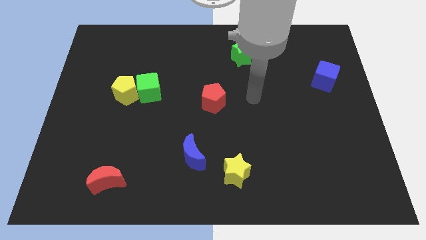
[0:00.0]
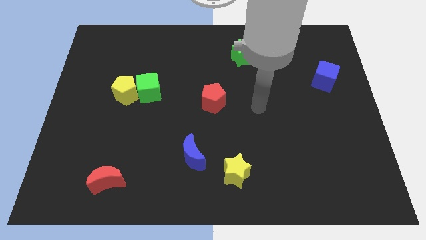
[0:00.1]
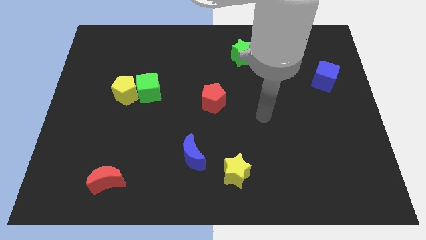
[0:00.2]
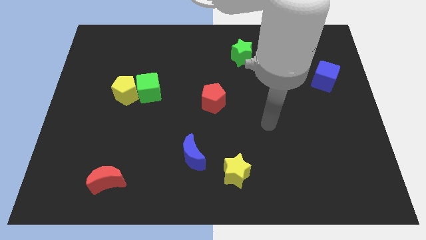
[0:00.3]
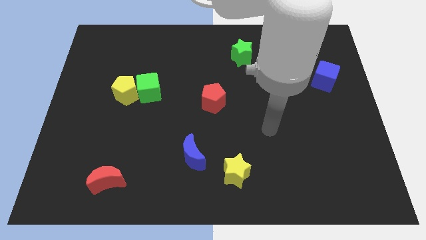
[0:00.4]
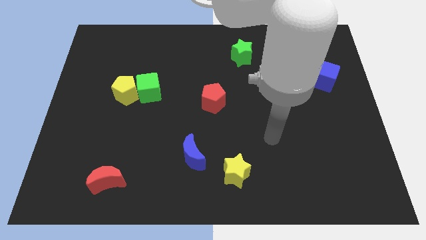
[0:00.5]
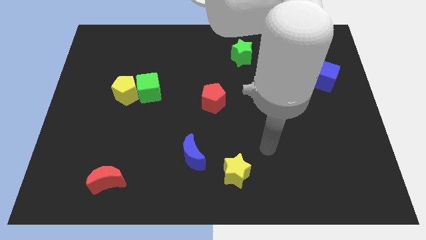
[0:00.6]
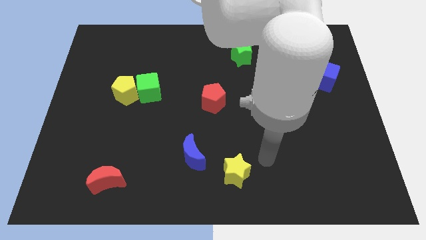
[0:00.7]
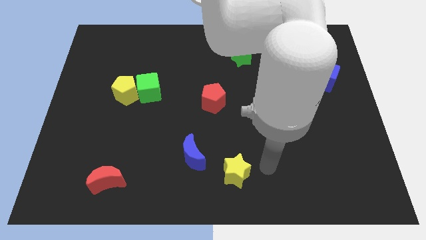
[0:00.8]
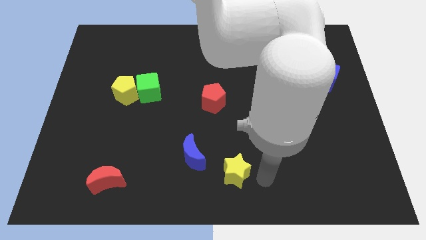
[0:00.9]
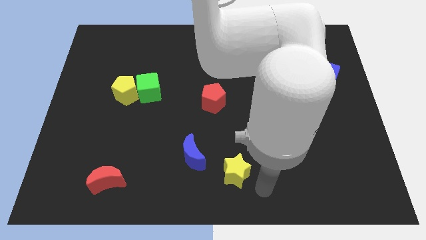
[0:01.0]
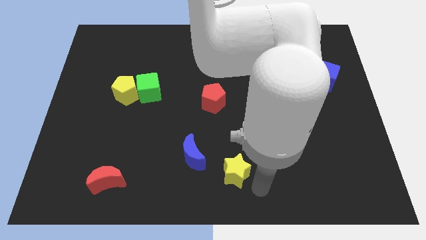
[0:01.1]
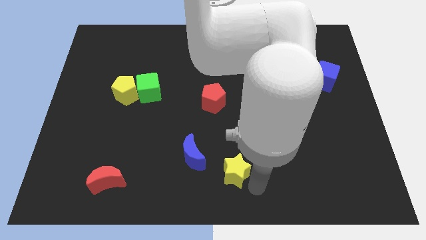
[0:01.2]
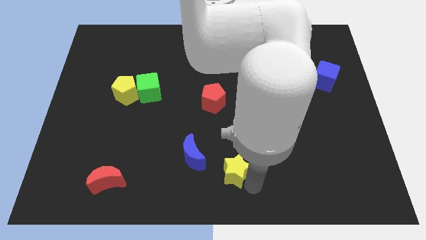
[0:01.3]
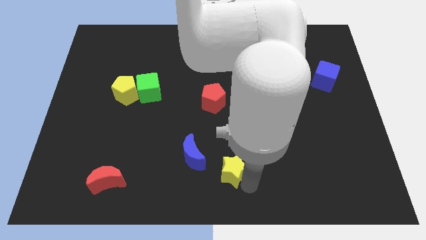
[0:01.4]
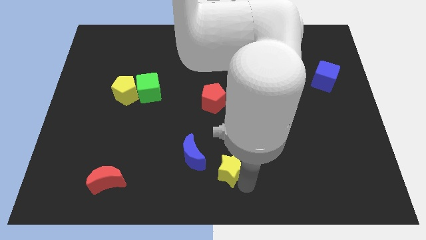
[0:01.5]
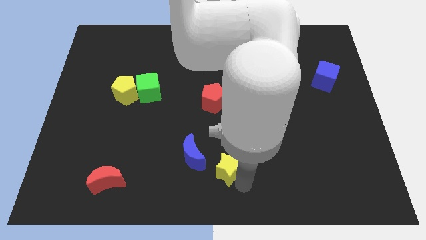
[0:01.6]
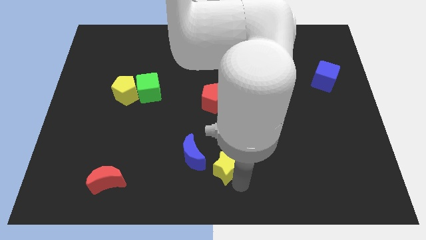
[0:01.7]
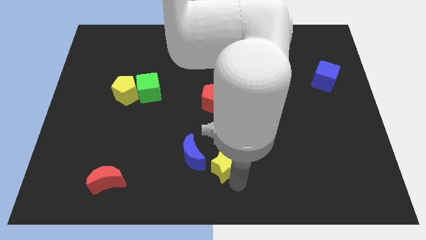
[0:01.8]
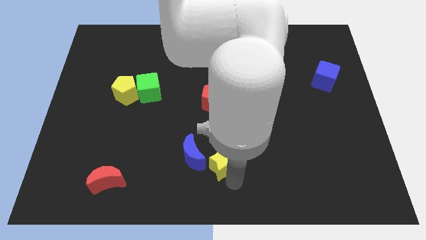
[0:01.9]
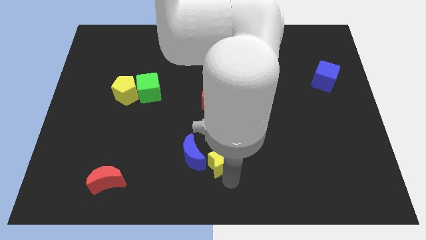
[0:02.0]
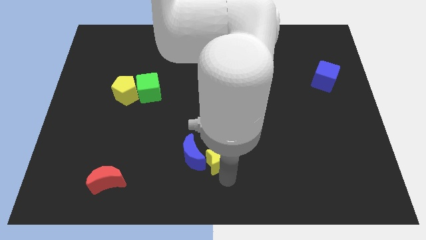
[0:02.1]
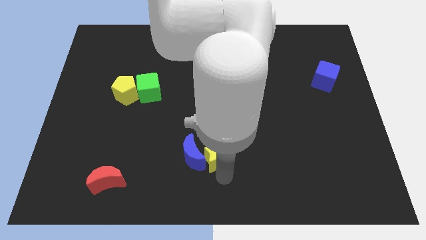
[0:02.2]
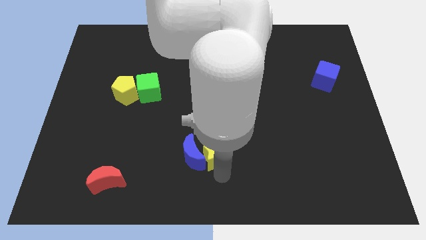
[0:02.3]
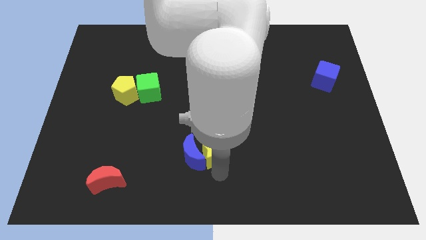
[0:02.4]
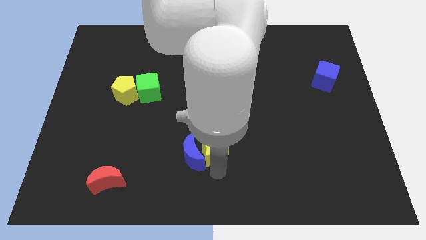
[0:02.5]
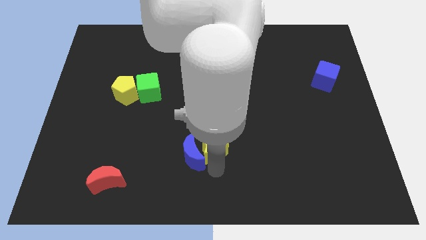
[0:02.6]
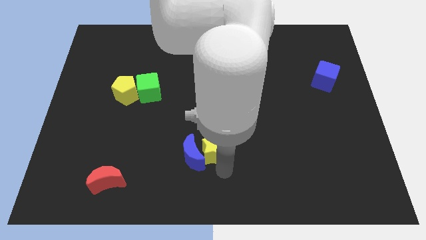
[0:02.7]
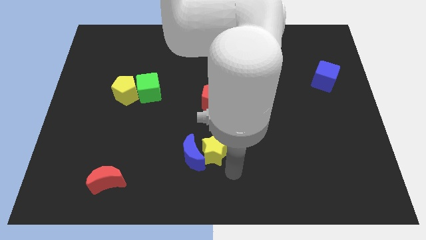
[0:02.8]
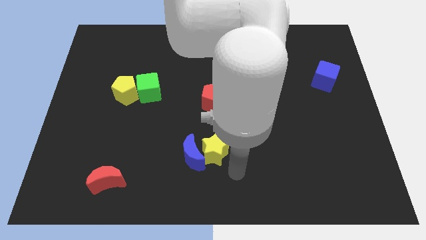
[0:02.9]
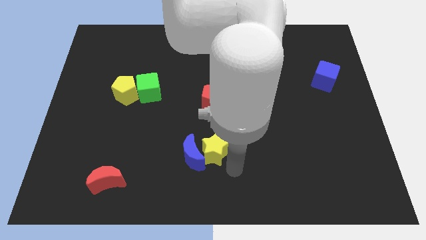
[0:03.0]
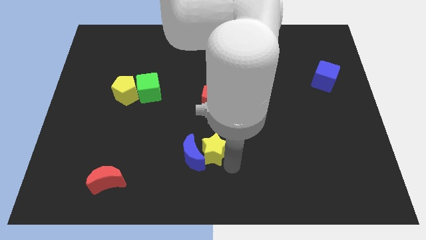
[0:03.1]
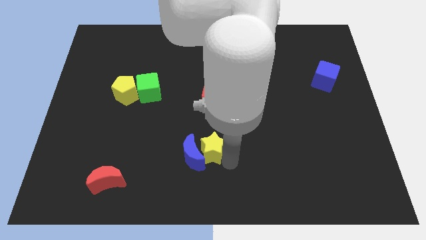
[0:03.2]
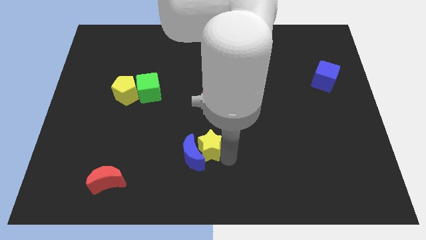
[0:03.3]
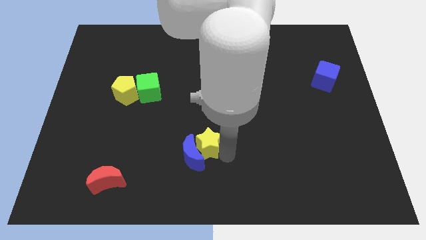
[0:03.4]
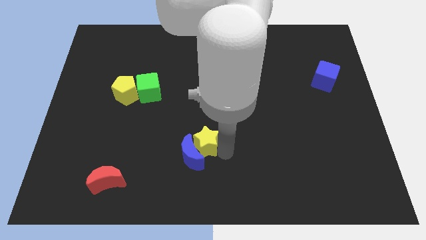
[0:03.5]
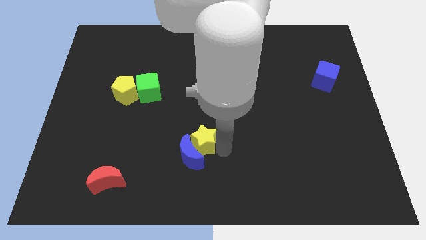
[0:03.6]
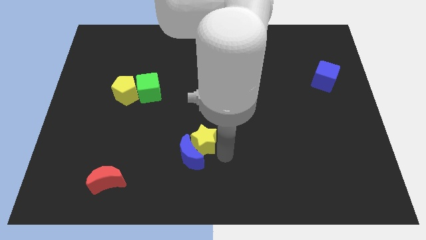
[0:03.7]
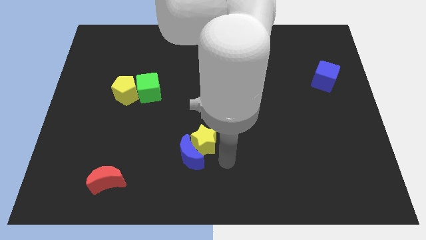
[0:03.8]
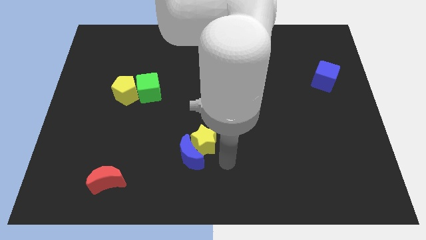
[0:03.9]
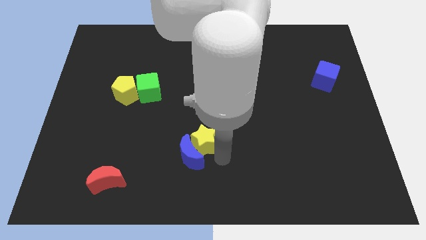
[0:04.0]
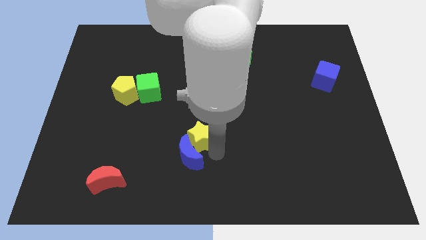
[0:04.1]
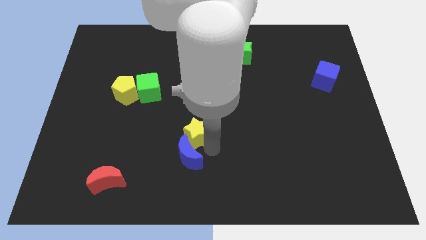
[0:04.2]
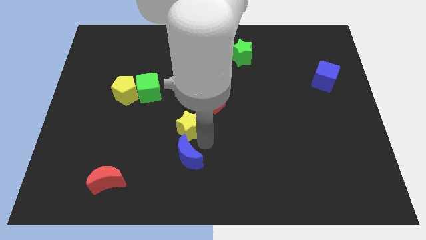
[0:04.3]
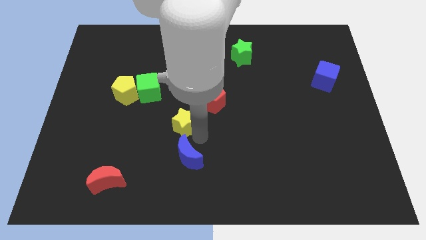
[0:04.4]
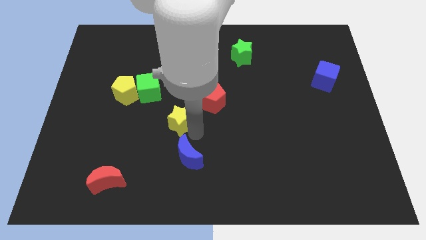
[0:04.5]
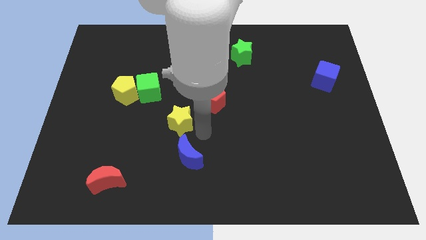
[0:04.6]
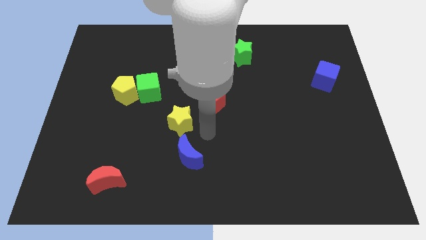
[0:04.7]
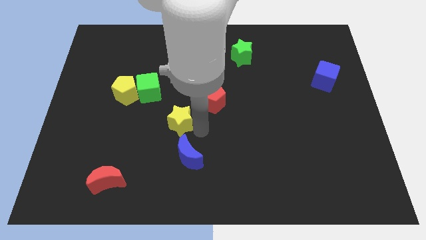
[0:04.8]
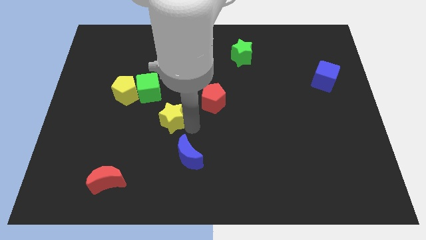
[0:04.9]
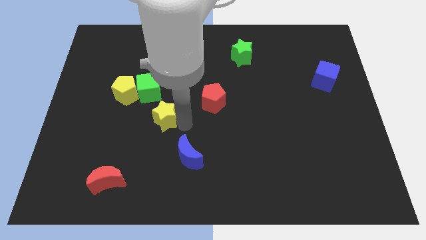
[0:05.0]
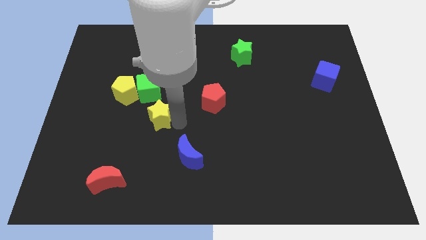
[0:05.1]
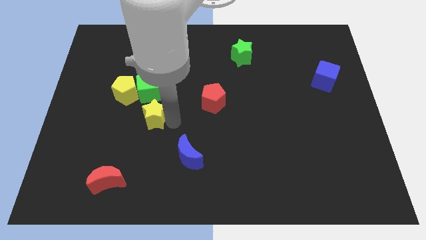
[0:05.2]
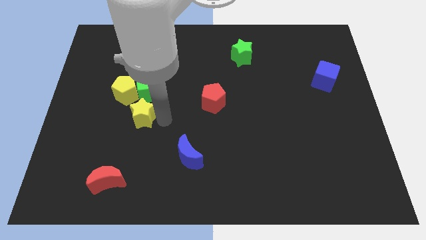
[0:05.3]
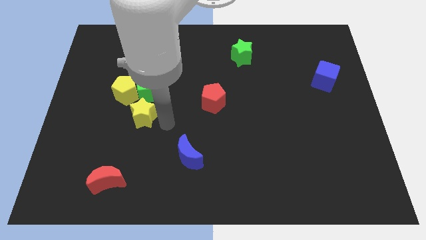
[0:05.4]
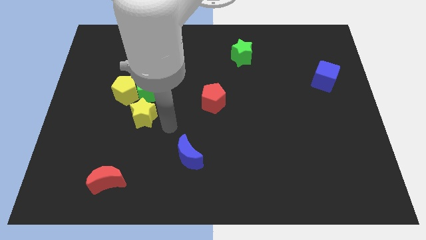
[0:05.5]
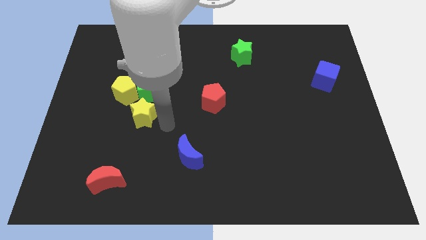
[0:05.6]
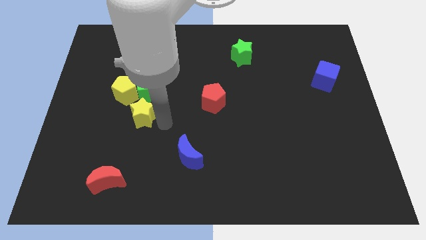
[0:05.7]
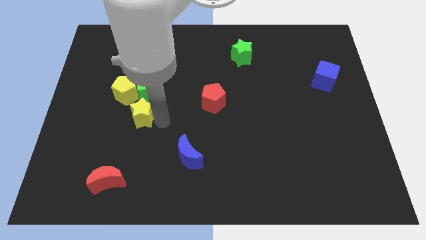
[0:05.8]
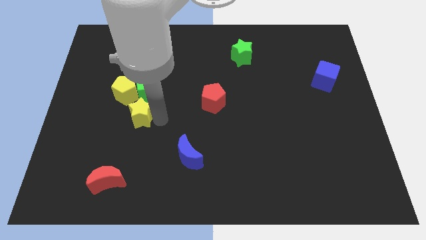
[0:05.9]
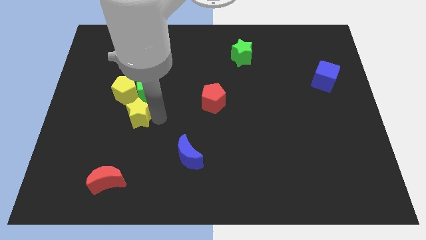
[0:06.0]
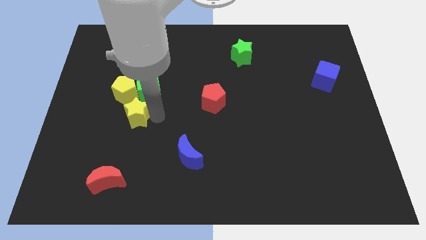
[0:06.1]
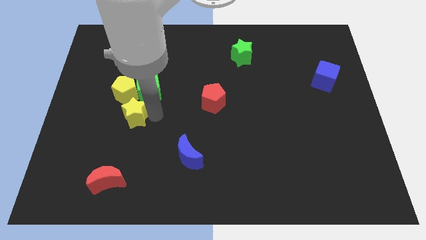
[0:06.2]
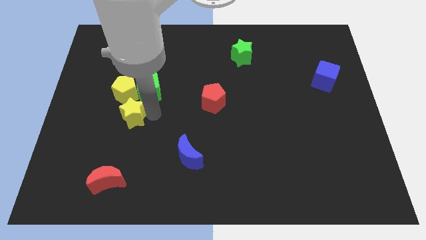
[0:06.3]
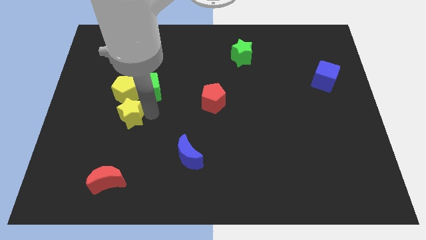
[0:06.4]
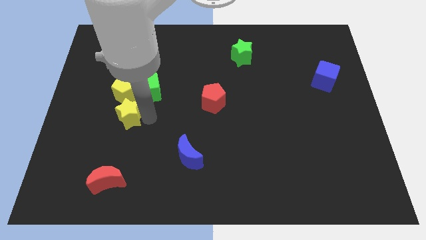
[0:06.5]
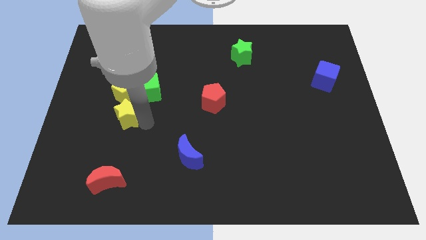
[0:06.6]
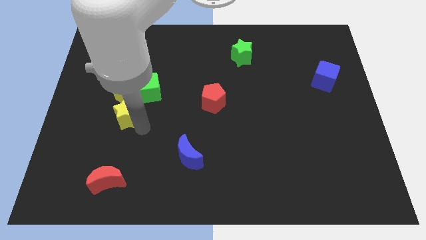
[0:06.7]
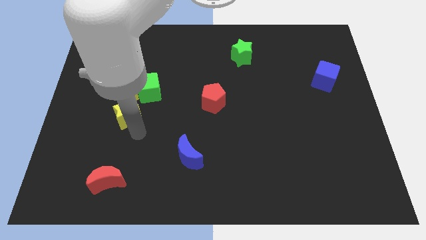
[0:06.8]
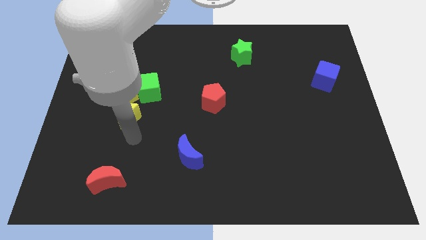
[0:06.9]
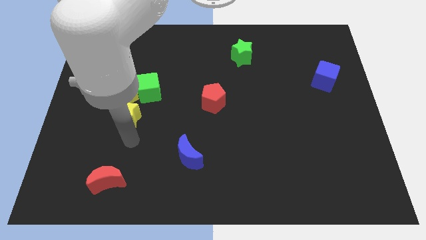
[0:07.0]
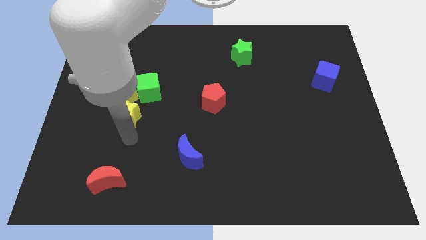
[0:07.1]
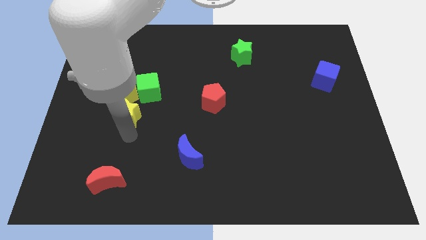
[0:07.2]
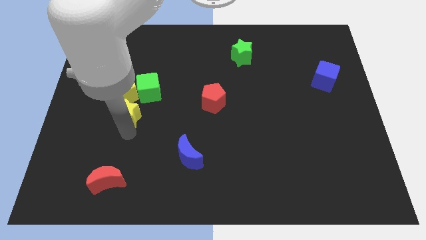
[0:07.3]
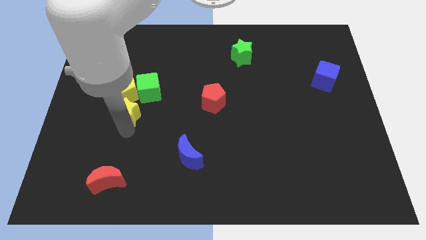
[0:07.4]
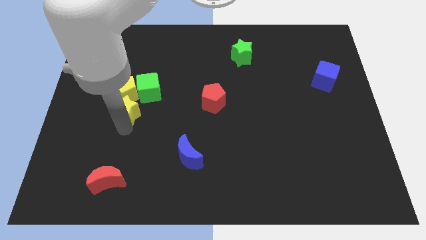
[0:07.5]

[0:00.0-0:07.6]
slide the yellow star close to the yellow pentagon
